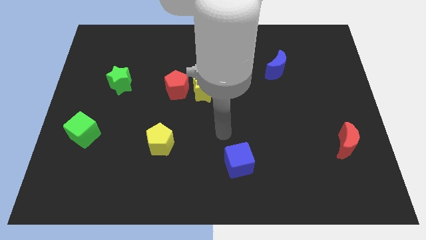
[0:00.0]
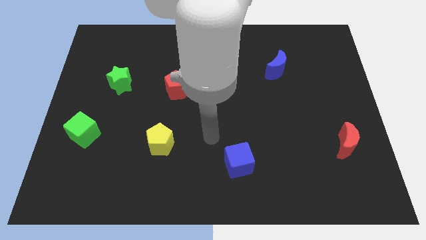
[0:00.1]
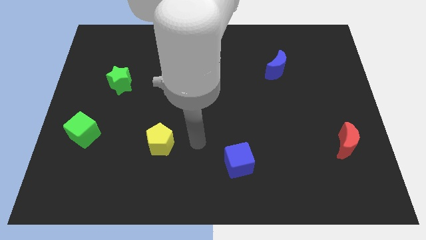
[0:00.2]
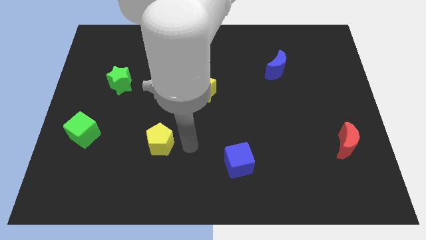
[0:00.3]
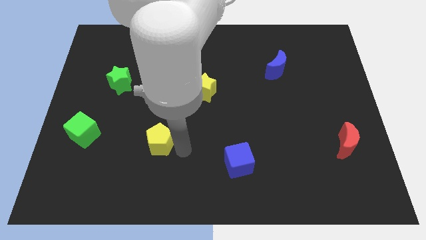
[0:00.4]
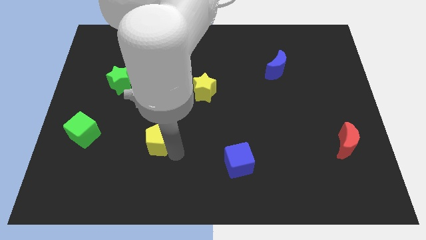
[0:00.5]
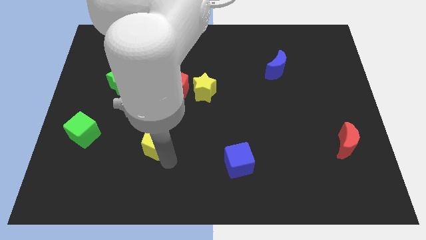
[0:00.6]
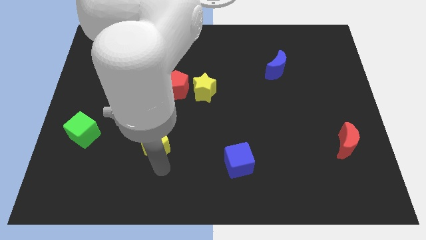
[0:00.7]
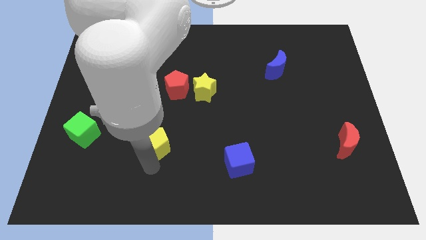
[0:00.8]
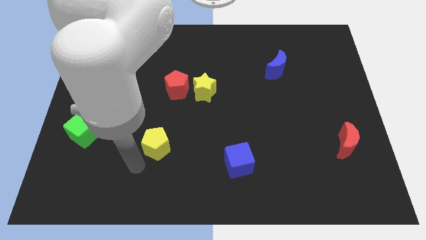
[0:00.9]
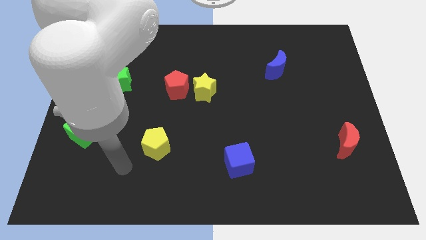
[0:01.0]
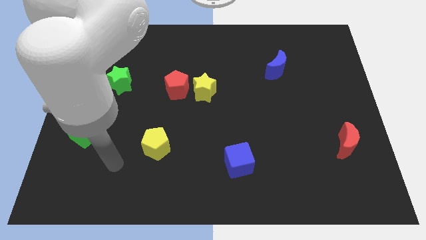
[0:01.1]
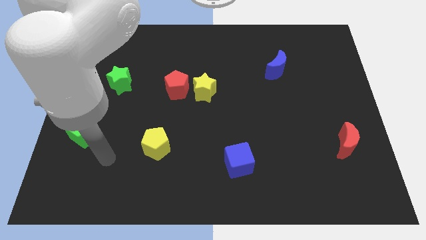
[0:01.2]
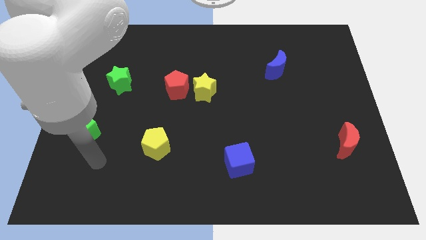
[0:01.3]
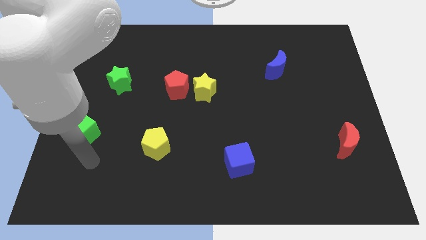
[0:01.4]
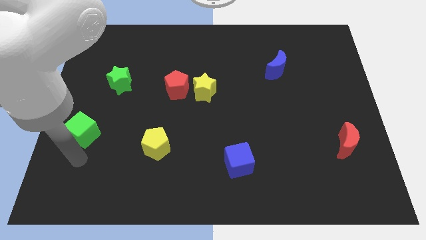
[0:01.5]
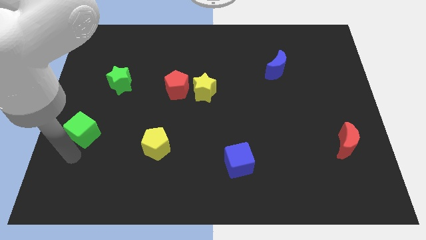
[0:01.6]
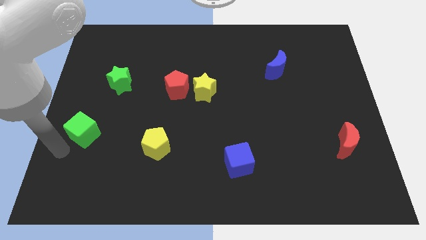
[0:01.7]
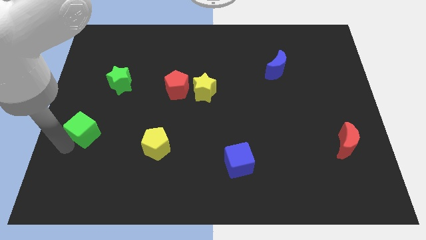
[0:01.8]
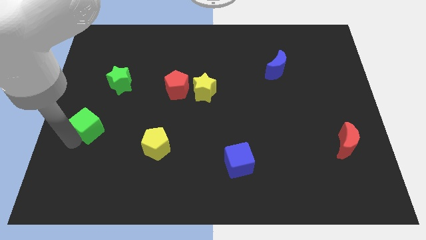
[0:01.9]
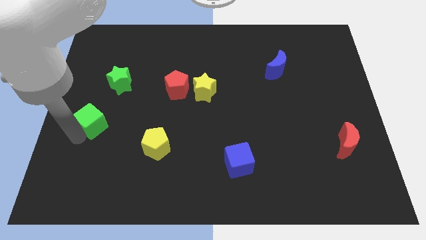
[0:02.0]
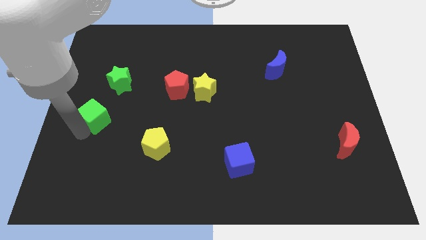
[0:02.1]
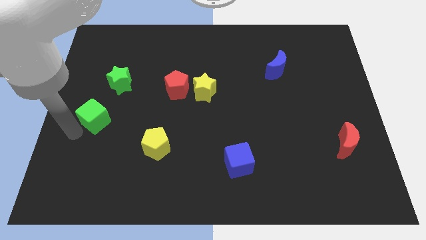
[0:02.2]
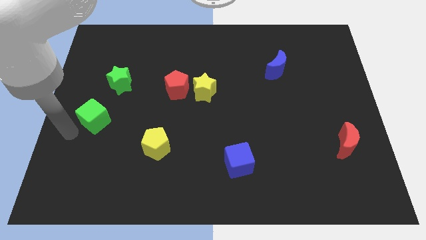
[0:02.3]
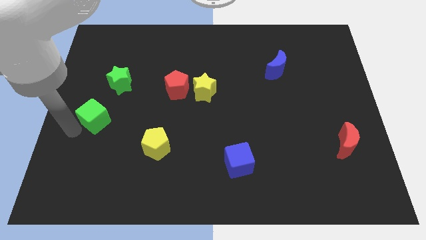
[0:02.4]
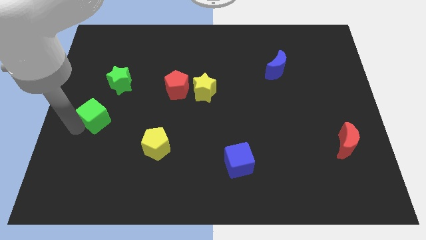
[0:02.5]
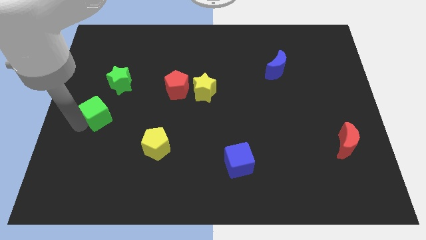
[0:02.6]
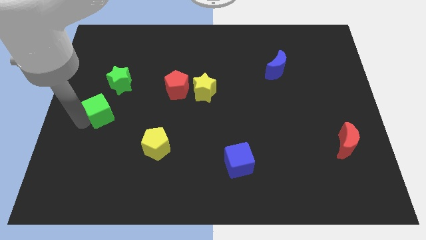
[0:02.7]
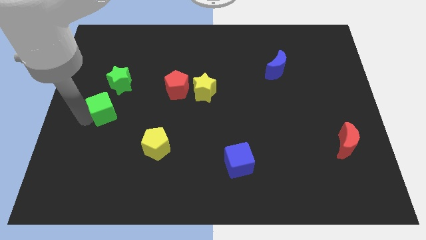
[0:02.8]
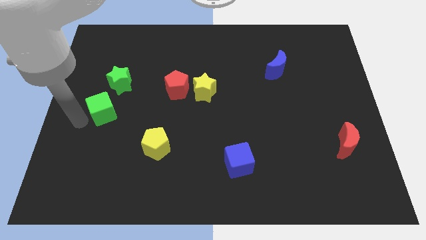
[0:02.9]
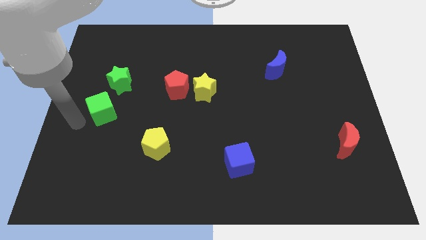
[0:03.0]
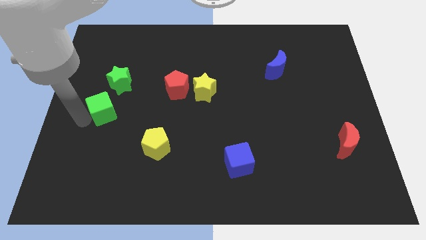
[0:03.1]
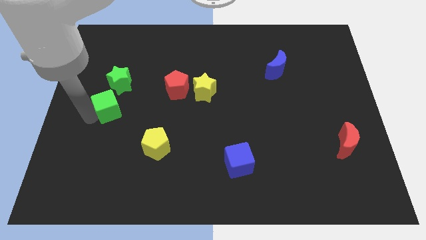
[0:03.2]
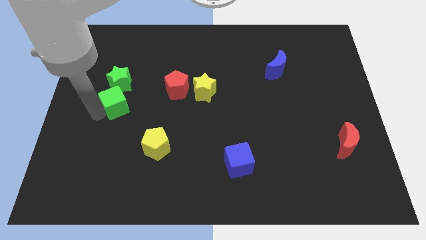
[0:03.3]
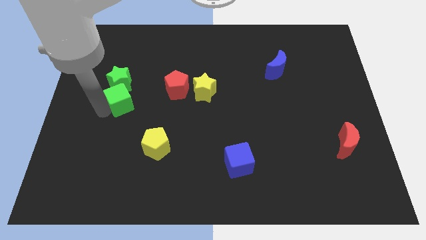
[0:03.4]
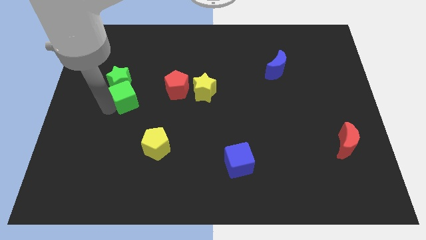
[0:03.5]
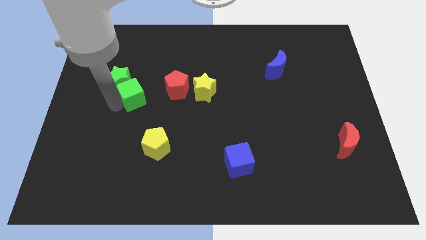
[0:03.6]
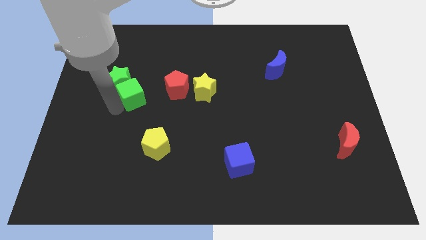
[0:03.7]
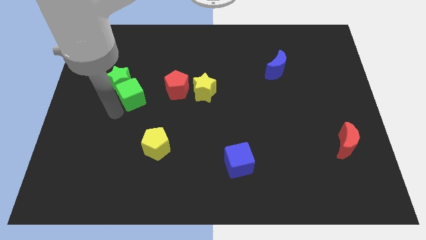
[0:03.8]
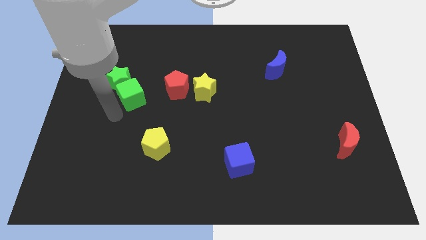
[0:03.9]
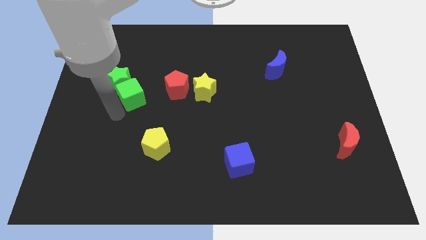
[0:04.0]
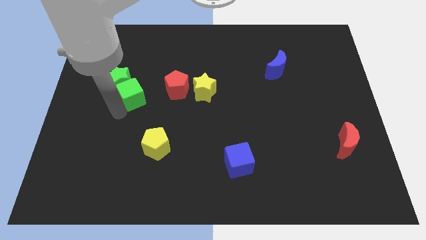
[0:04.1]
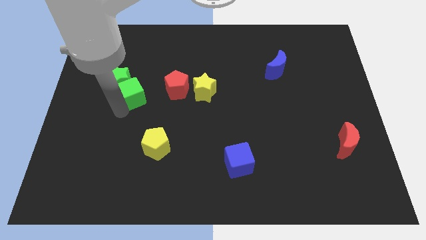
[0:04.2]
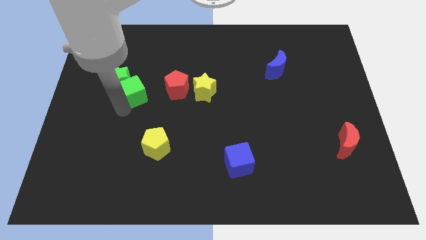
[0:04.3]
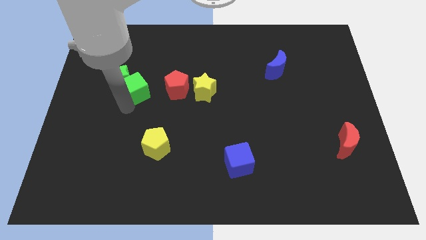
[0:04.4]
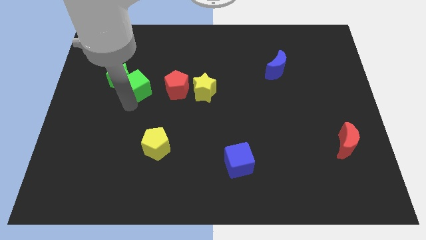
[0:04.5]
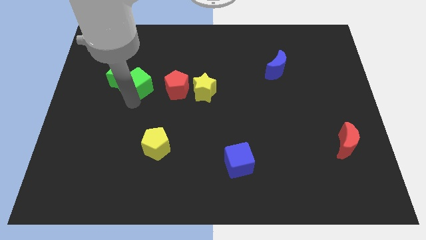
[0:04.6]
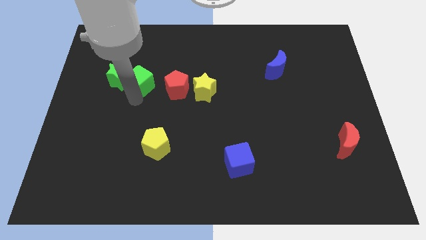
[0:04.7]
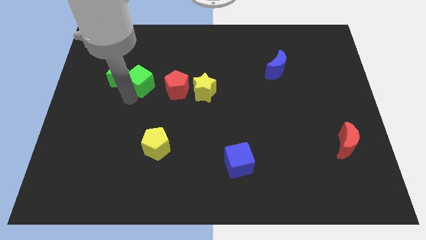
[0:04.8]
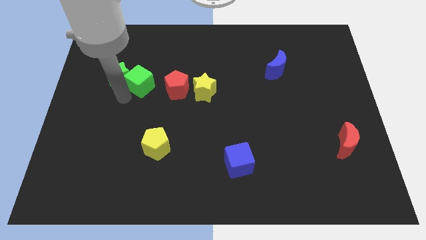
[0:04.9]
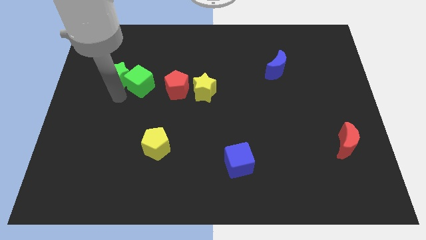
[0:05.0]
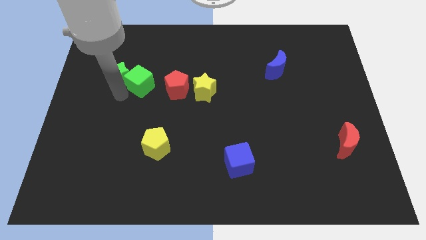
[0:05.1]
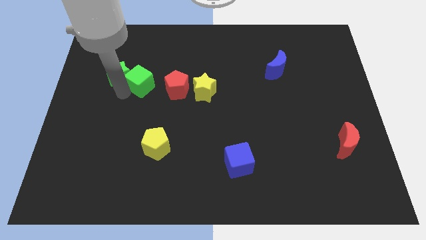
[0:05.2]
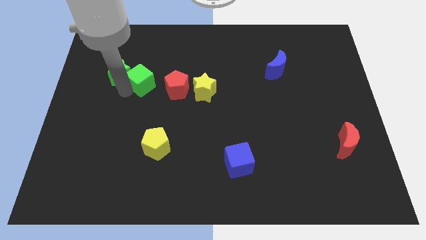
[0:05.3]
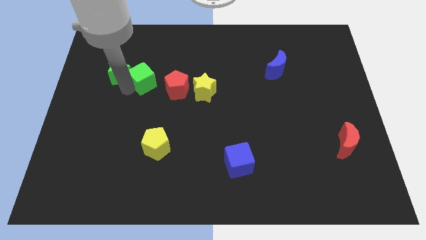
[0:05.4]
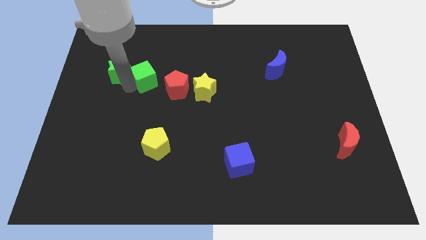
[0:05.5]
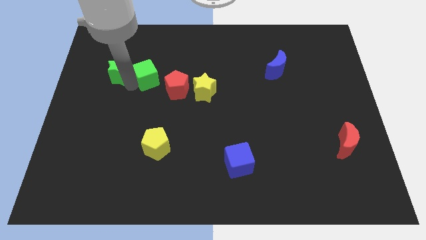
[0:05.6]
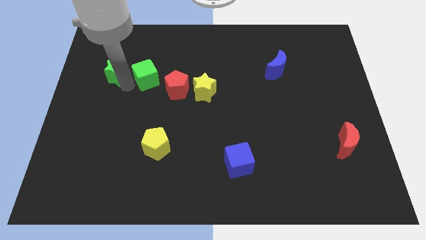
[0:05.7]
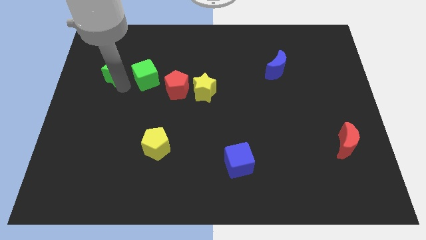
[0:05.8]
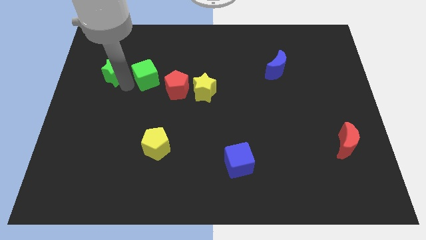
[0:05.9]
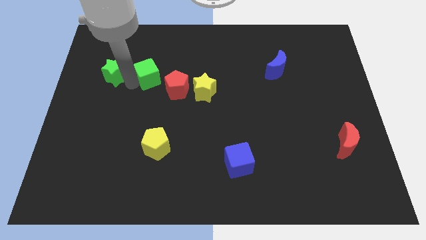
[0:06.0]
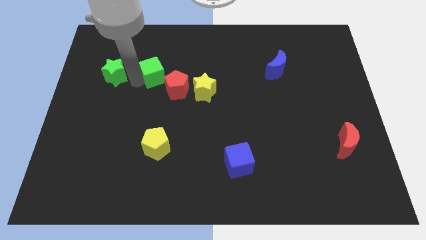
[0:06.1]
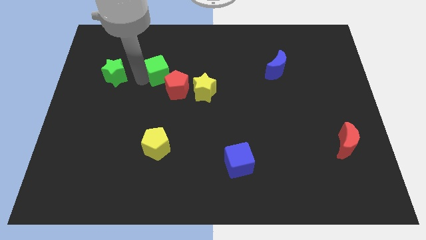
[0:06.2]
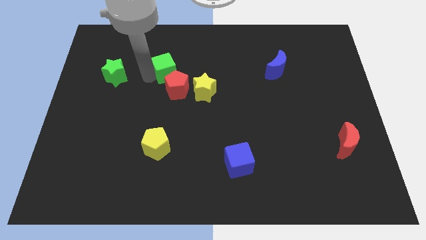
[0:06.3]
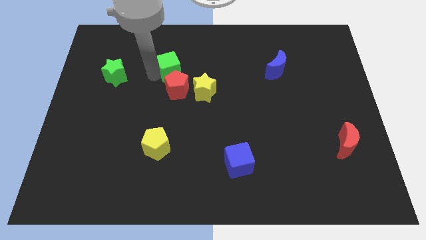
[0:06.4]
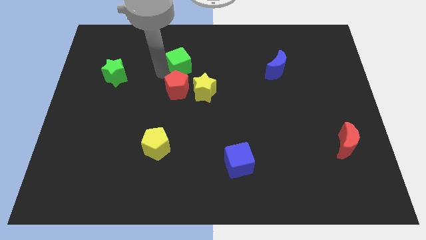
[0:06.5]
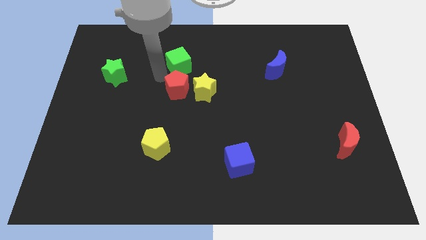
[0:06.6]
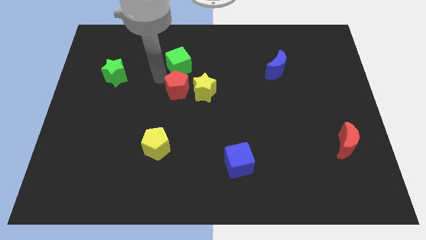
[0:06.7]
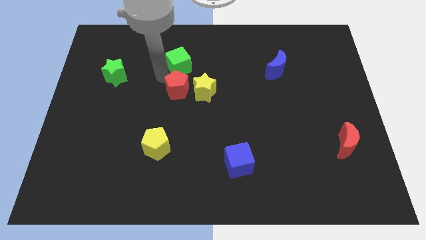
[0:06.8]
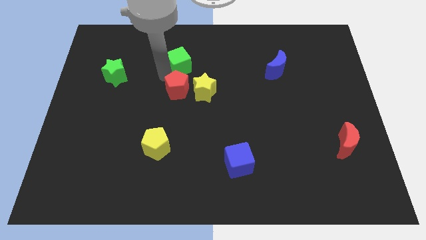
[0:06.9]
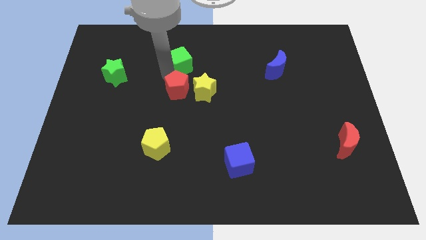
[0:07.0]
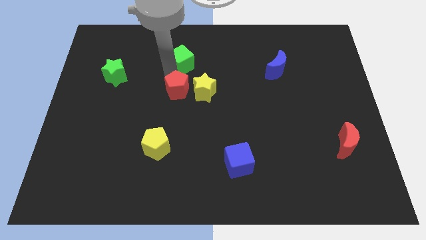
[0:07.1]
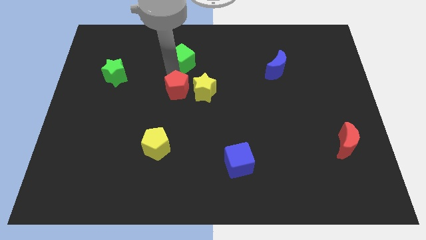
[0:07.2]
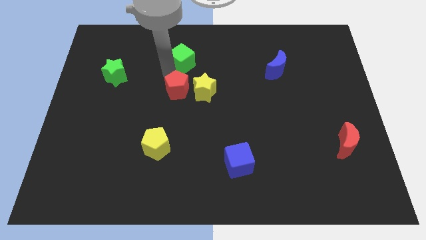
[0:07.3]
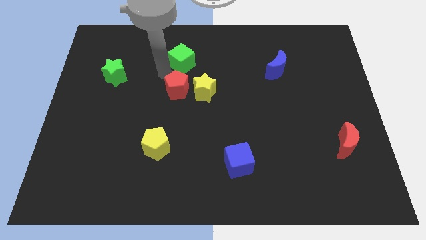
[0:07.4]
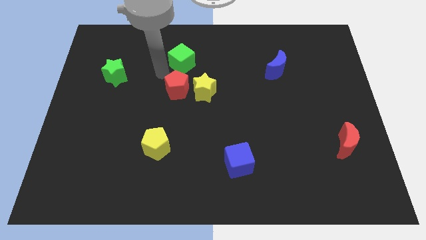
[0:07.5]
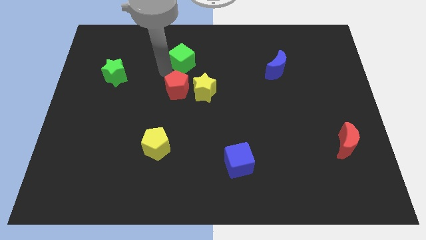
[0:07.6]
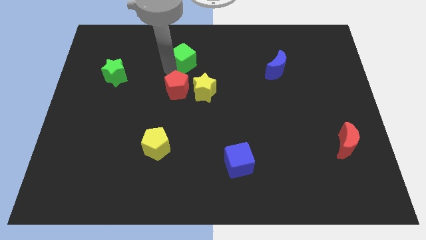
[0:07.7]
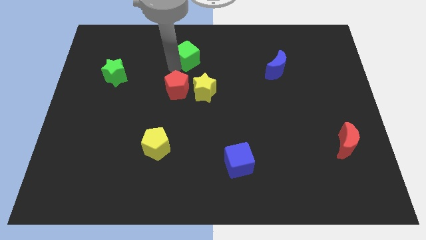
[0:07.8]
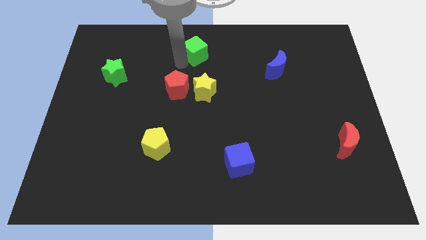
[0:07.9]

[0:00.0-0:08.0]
push the green cube to the towards your base
